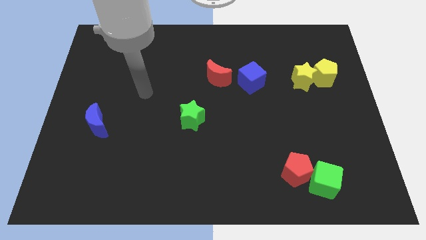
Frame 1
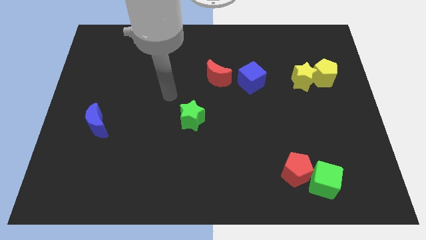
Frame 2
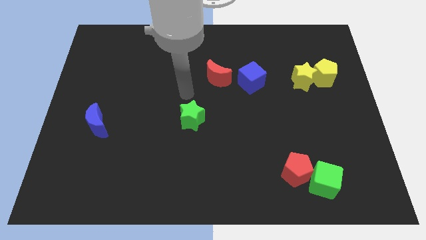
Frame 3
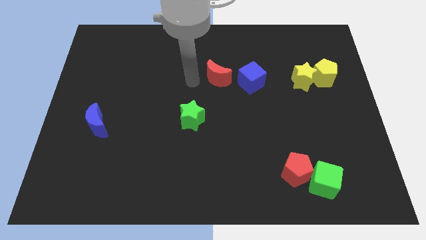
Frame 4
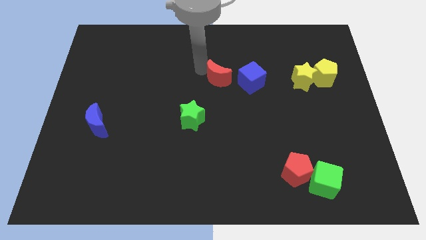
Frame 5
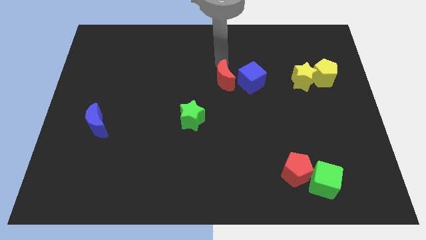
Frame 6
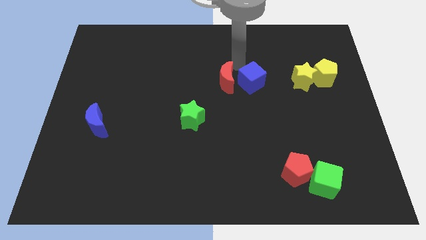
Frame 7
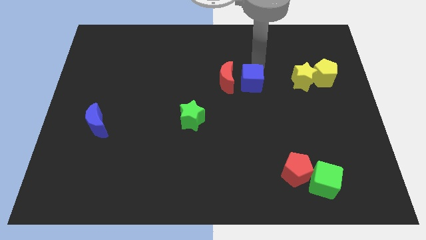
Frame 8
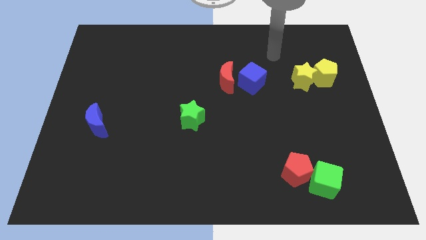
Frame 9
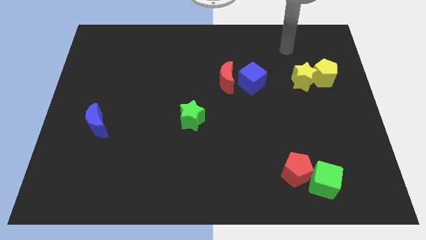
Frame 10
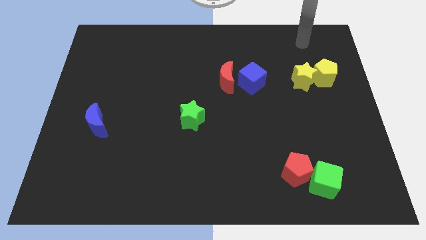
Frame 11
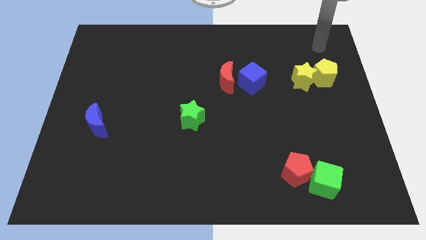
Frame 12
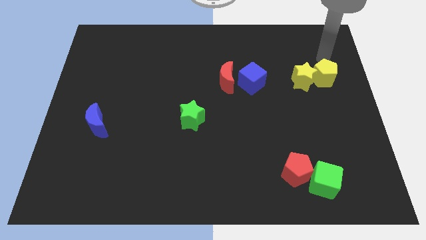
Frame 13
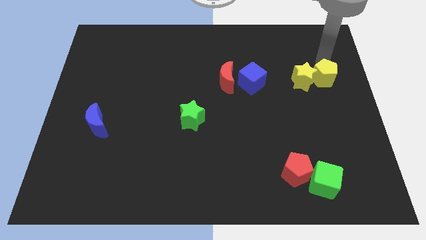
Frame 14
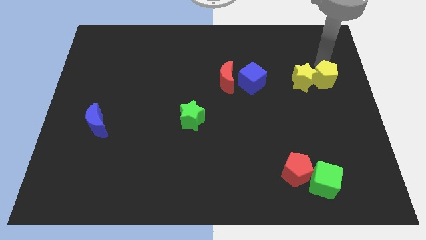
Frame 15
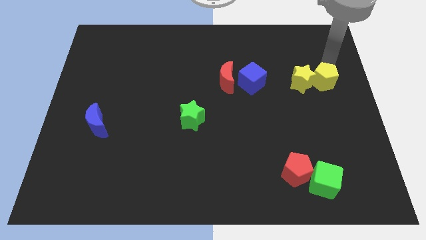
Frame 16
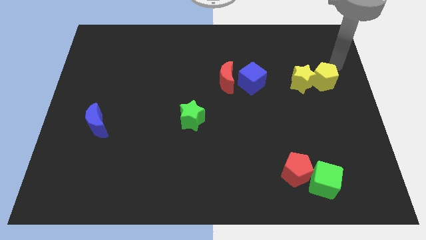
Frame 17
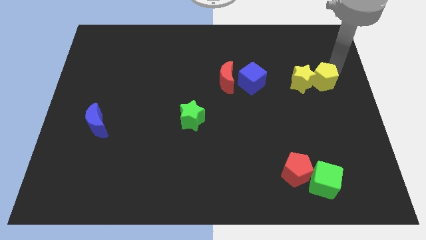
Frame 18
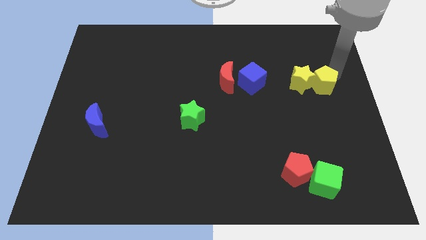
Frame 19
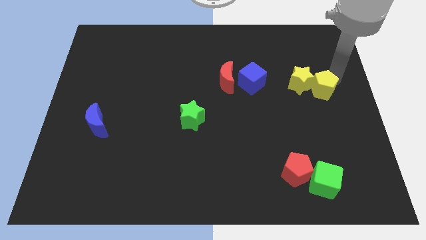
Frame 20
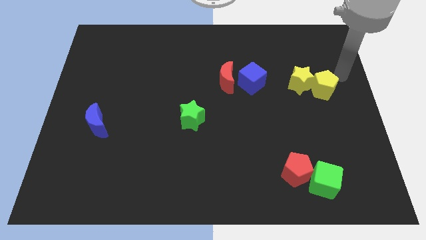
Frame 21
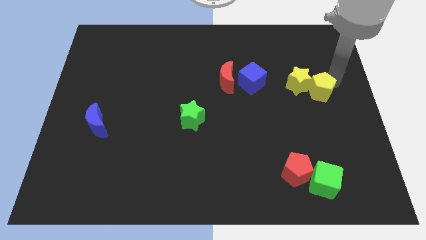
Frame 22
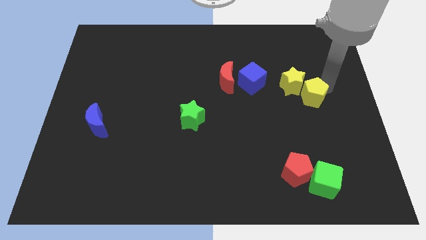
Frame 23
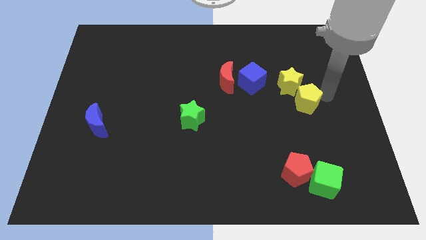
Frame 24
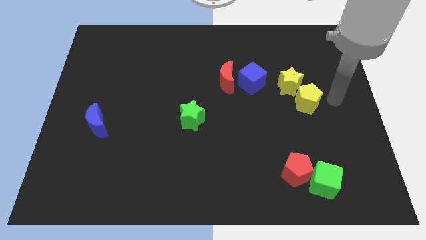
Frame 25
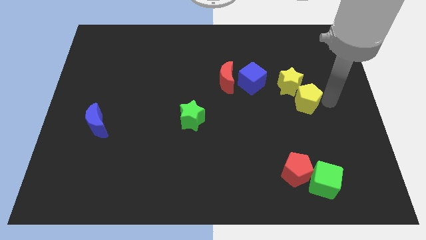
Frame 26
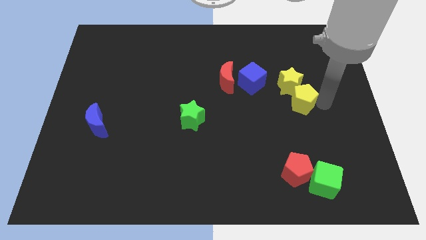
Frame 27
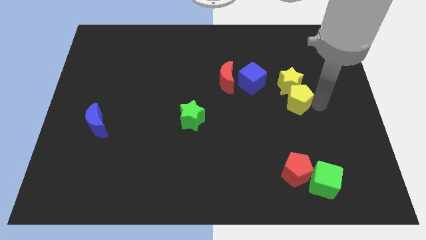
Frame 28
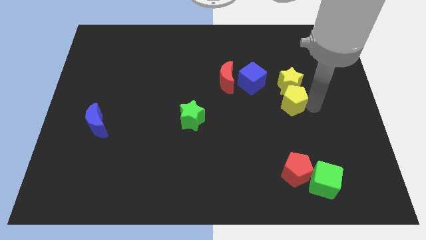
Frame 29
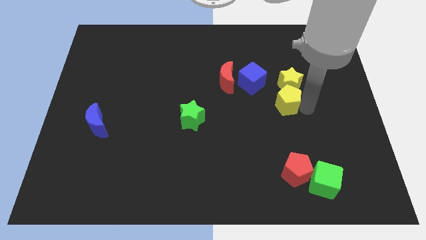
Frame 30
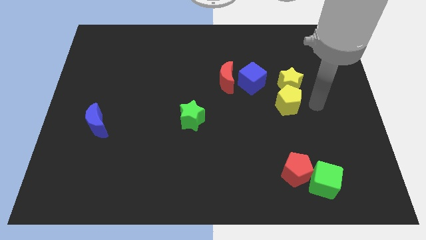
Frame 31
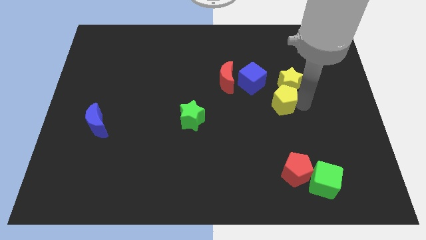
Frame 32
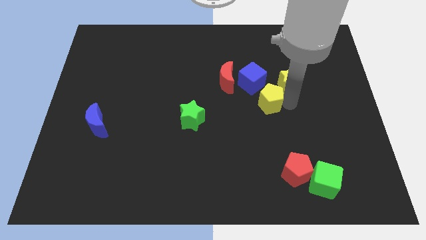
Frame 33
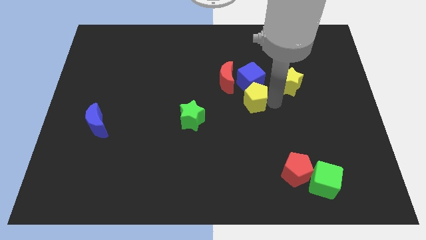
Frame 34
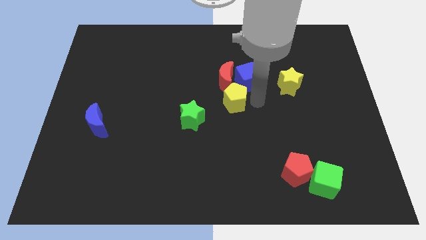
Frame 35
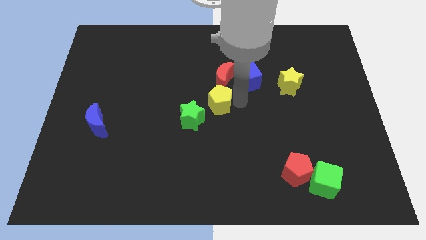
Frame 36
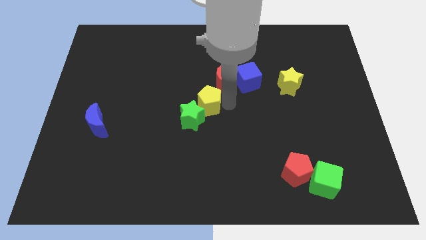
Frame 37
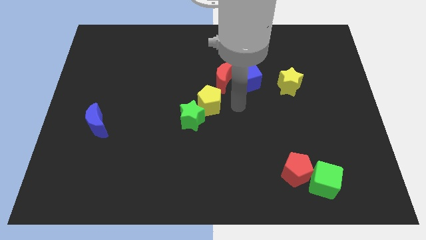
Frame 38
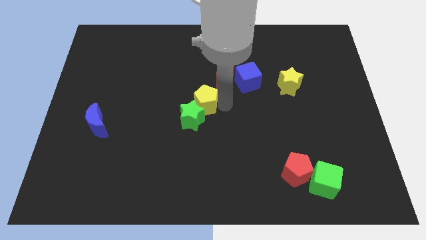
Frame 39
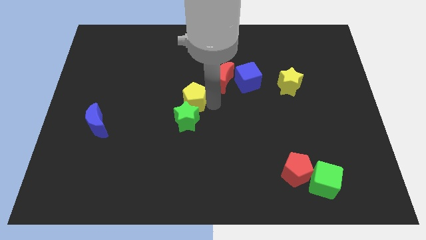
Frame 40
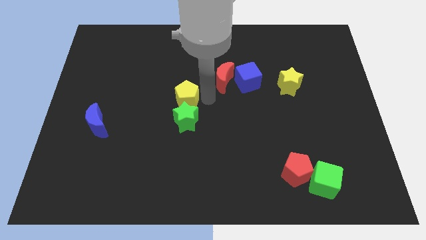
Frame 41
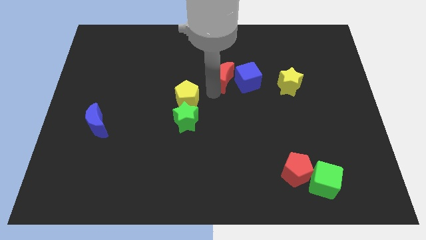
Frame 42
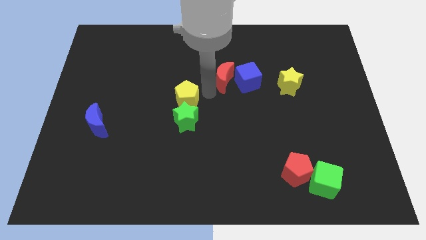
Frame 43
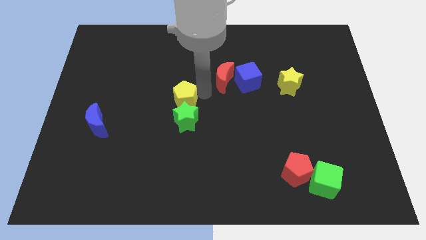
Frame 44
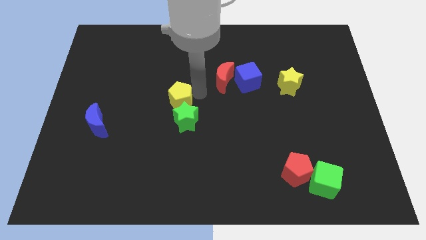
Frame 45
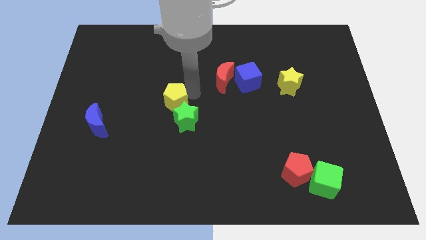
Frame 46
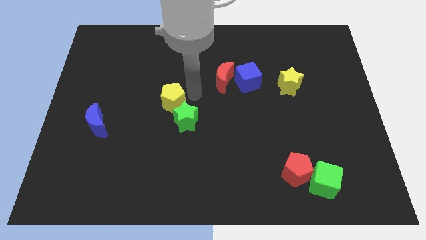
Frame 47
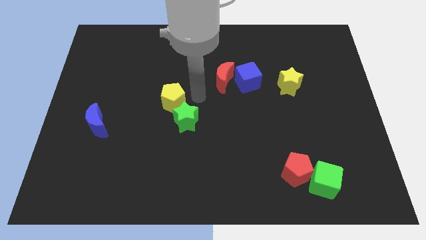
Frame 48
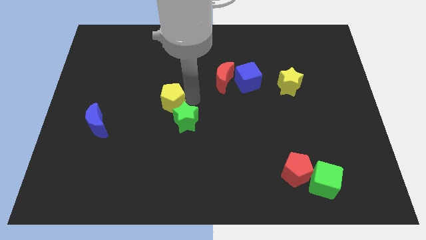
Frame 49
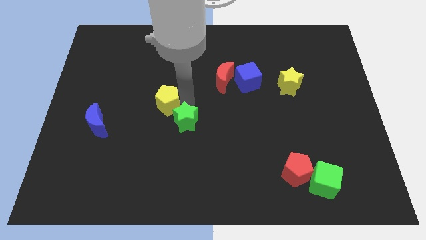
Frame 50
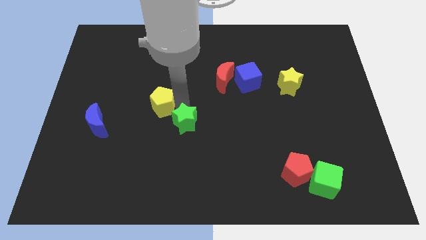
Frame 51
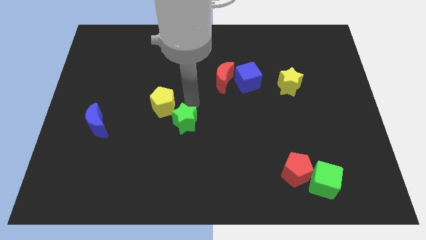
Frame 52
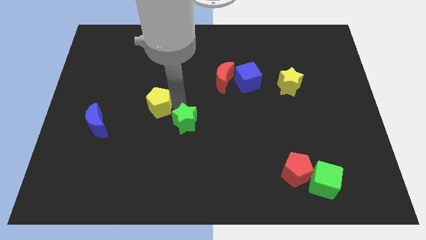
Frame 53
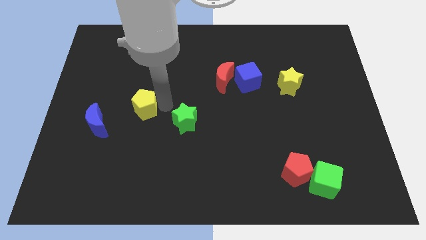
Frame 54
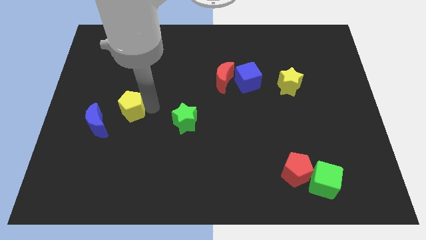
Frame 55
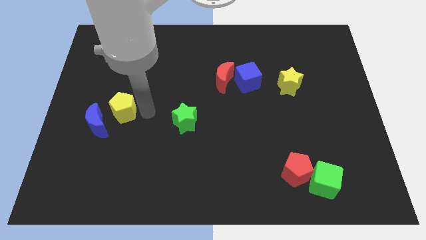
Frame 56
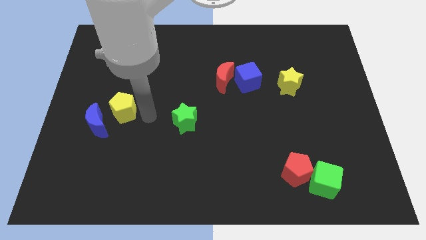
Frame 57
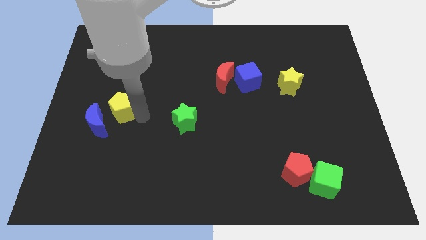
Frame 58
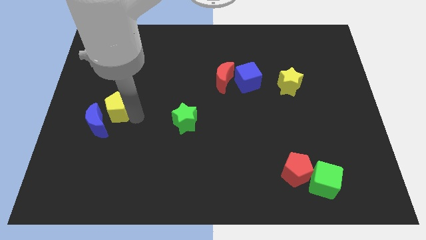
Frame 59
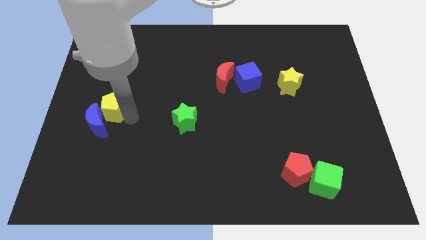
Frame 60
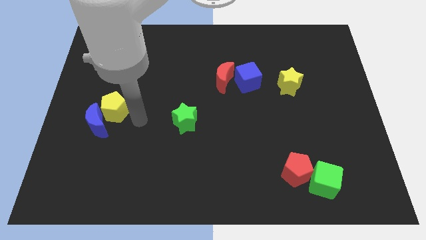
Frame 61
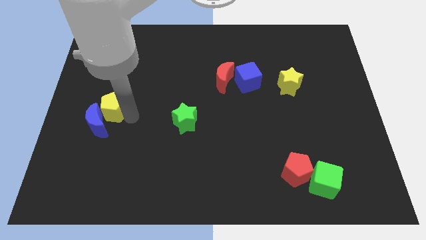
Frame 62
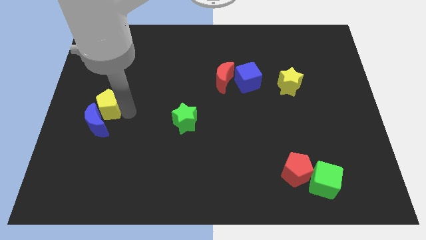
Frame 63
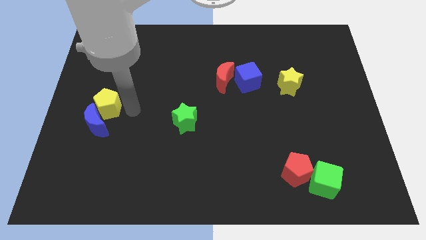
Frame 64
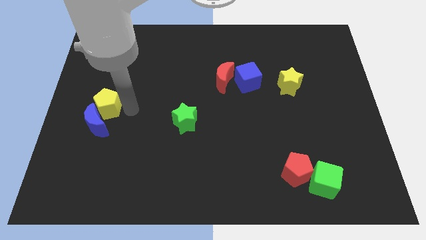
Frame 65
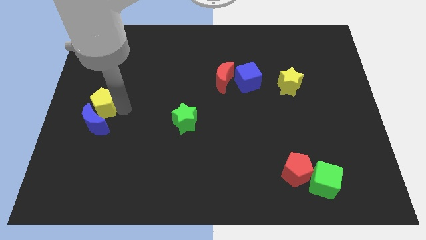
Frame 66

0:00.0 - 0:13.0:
put the yellow pentagon to the center left

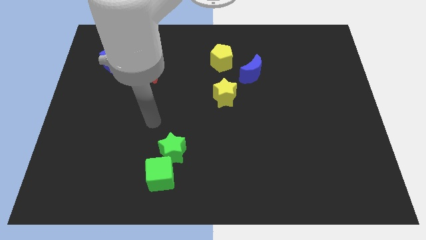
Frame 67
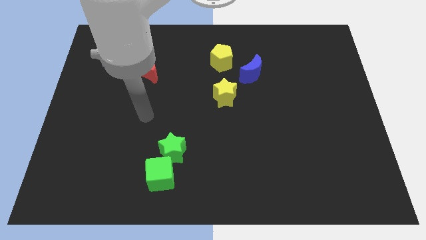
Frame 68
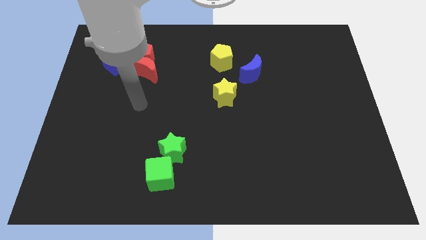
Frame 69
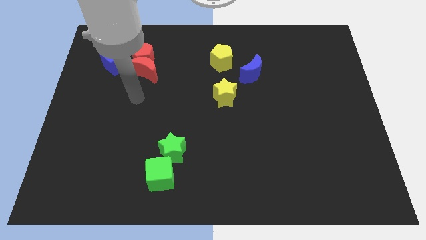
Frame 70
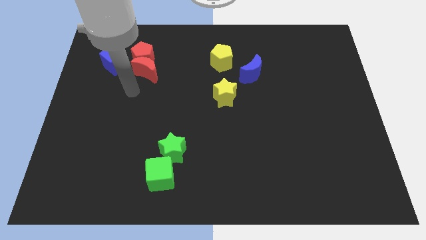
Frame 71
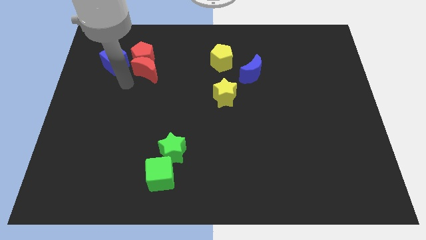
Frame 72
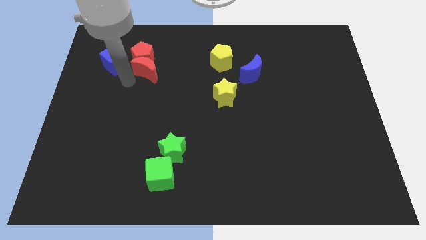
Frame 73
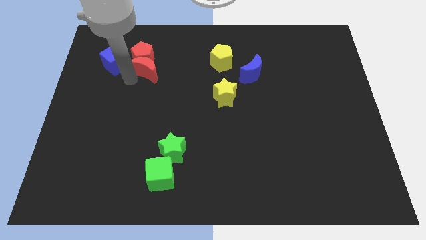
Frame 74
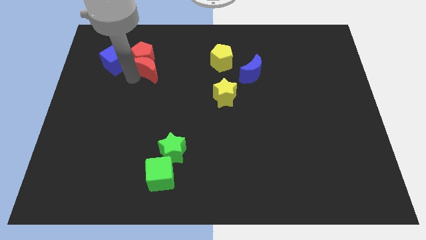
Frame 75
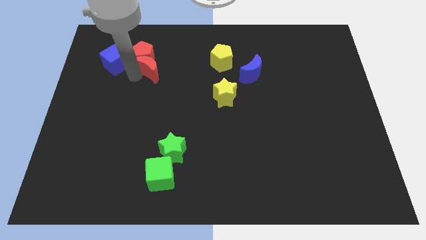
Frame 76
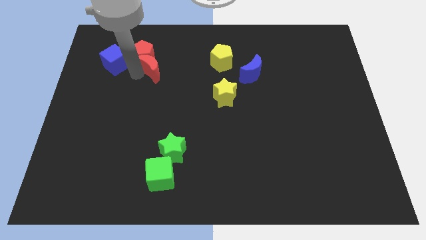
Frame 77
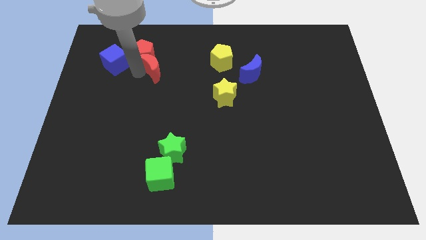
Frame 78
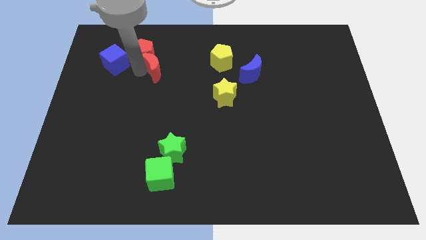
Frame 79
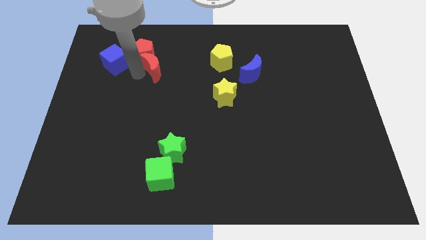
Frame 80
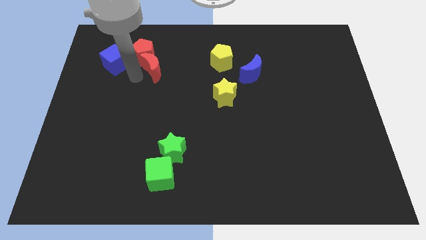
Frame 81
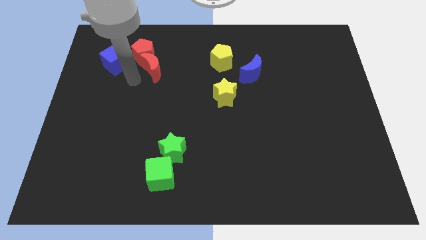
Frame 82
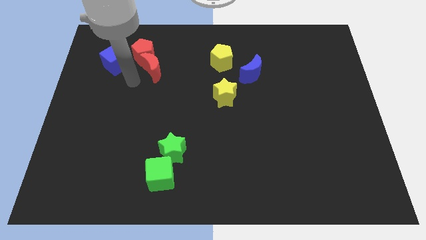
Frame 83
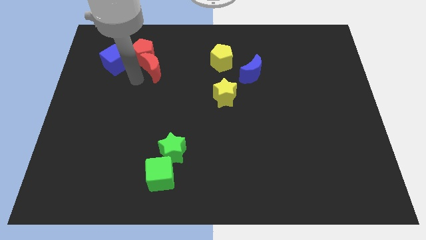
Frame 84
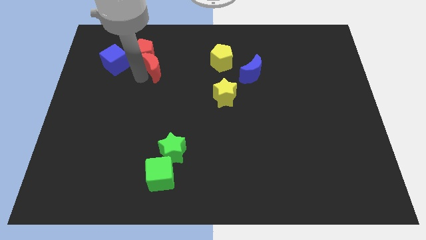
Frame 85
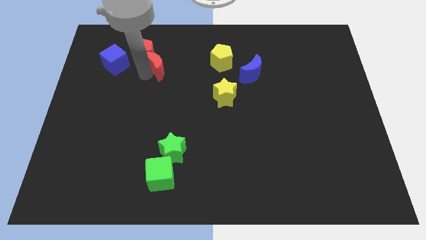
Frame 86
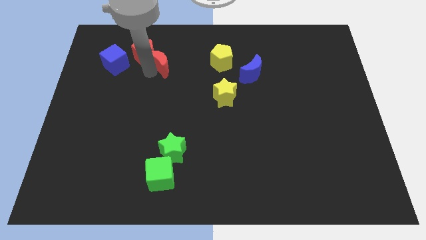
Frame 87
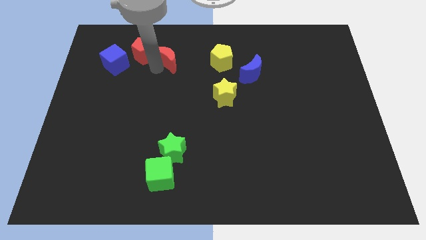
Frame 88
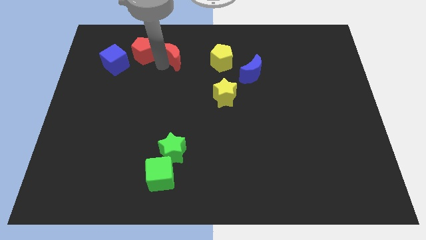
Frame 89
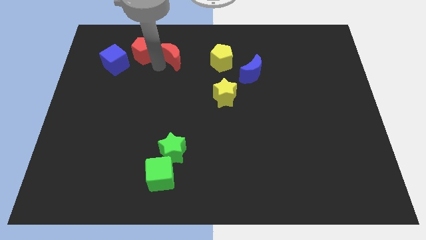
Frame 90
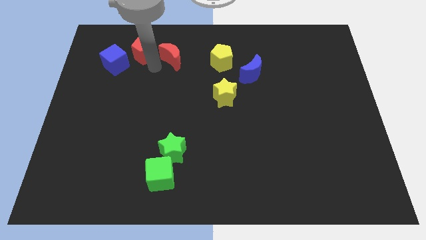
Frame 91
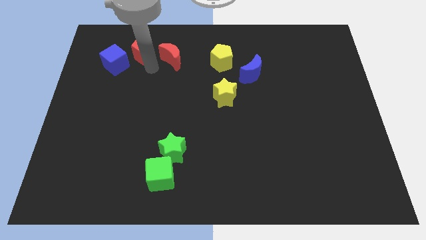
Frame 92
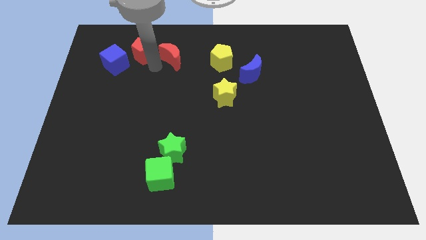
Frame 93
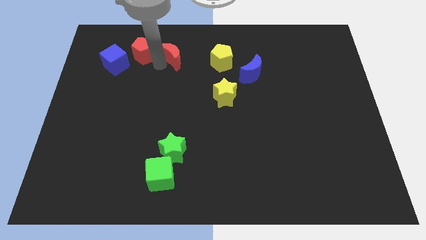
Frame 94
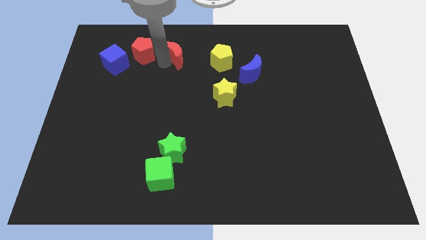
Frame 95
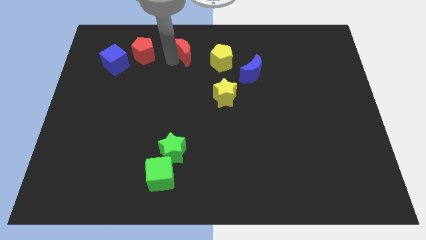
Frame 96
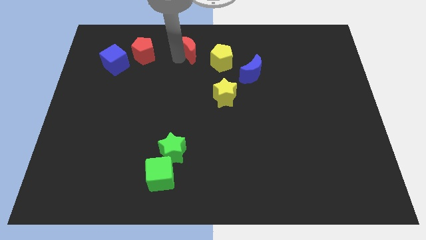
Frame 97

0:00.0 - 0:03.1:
move the red moon to the towards your base
